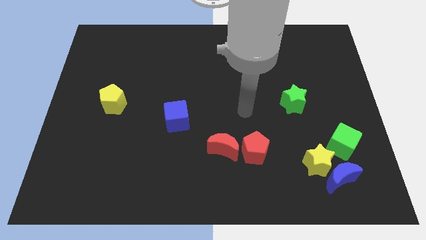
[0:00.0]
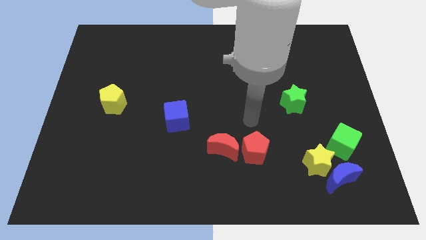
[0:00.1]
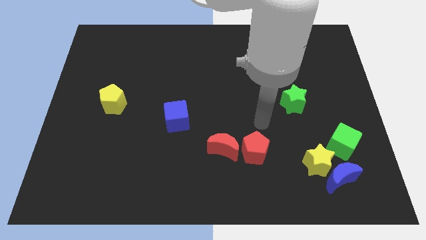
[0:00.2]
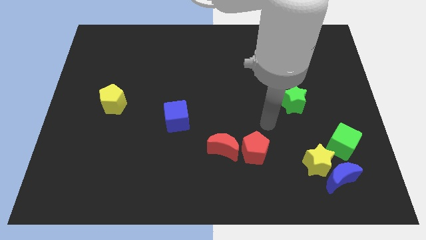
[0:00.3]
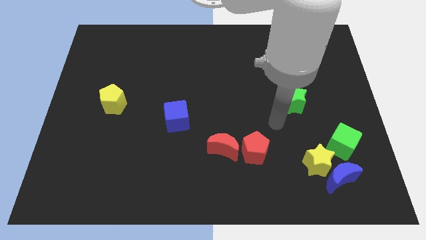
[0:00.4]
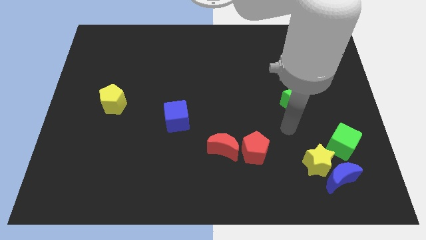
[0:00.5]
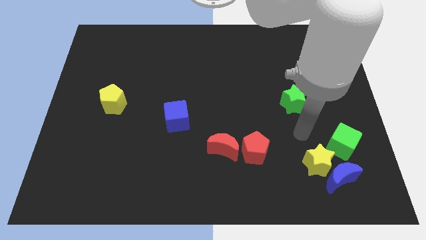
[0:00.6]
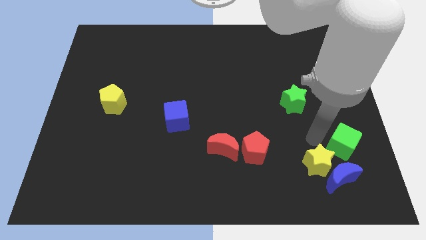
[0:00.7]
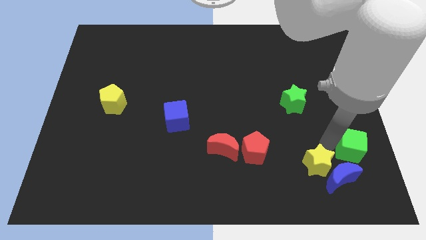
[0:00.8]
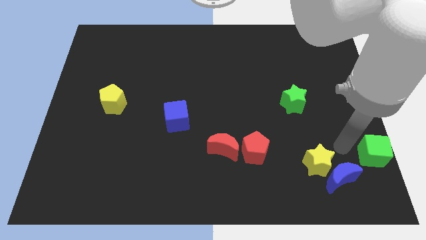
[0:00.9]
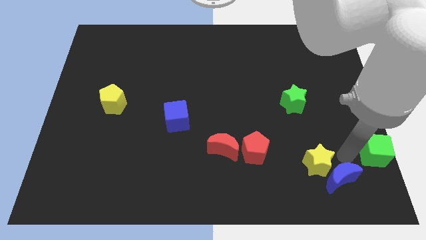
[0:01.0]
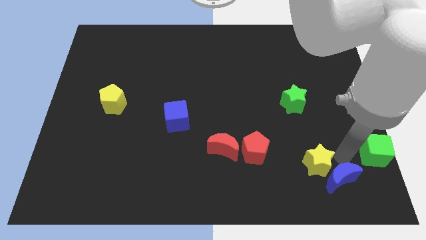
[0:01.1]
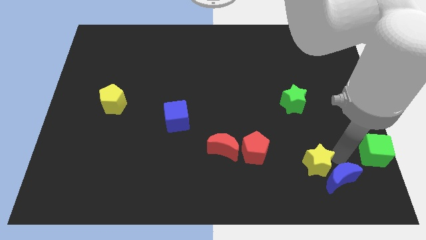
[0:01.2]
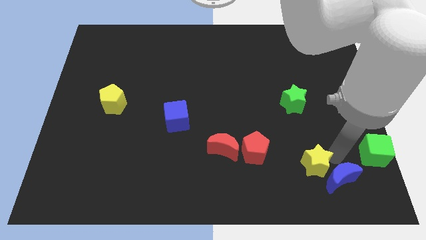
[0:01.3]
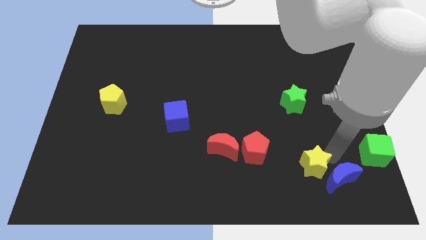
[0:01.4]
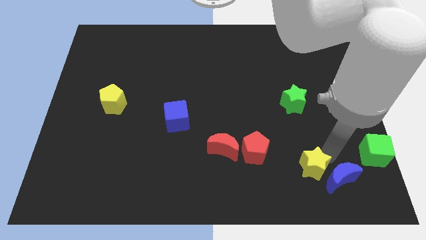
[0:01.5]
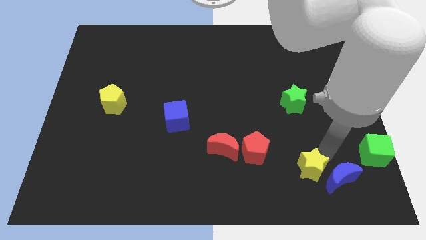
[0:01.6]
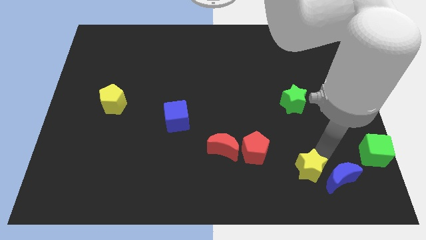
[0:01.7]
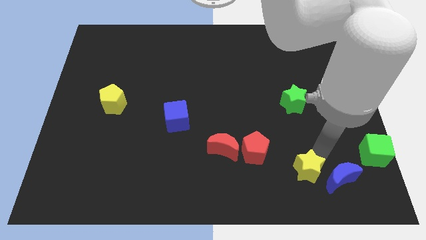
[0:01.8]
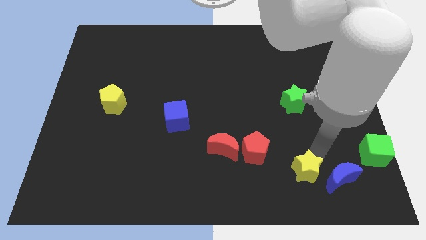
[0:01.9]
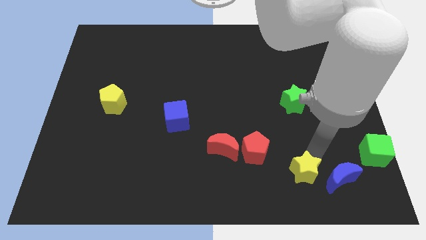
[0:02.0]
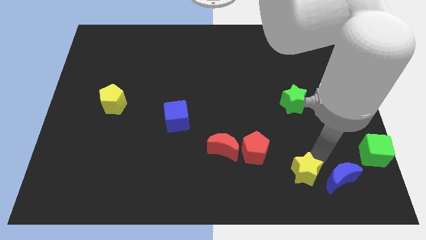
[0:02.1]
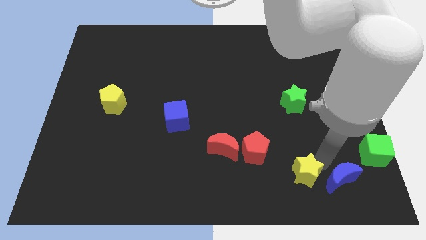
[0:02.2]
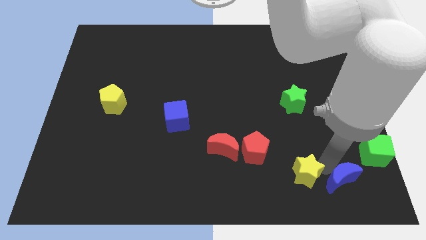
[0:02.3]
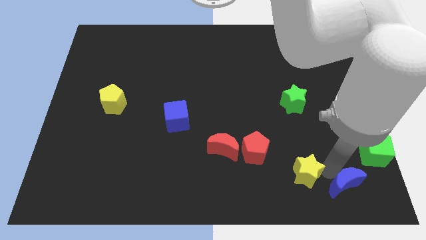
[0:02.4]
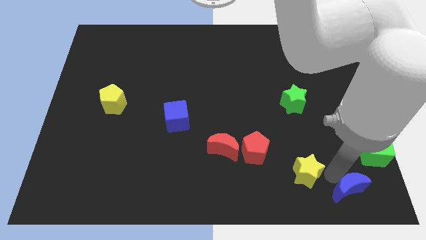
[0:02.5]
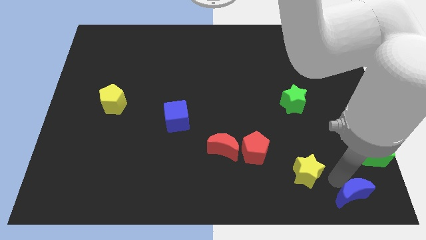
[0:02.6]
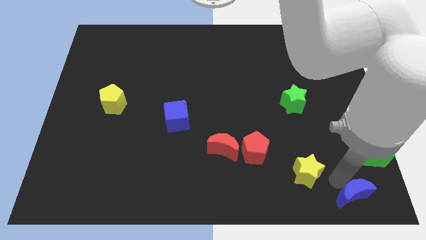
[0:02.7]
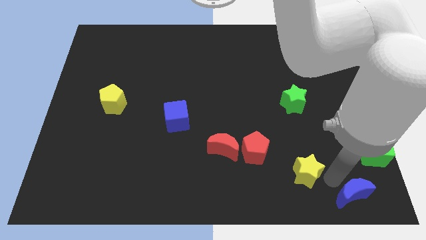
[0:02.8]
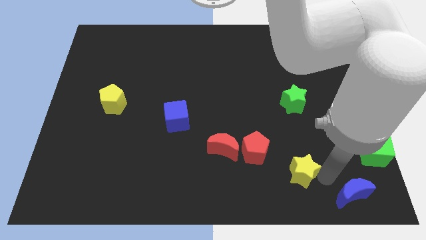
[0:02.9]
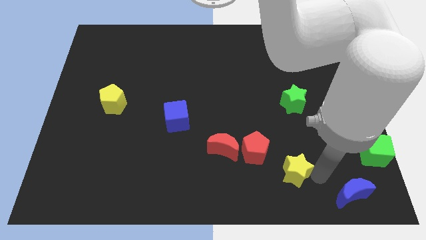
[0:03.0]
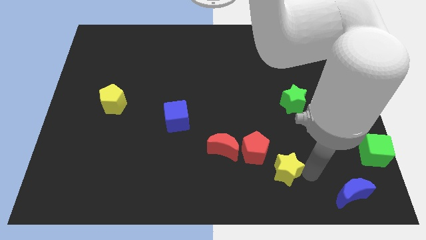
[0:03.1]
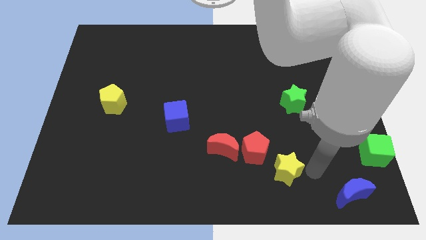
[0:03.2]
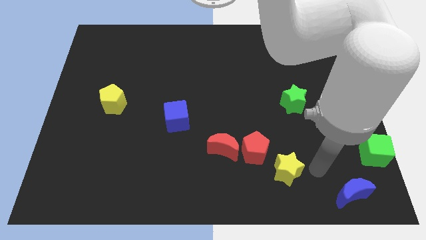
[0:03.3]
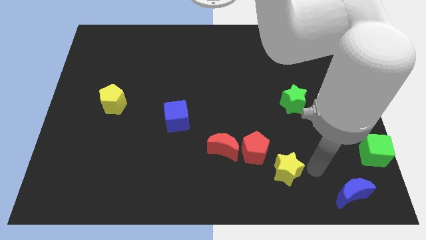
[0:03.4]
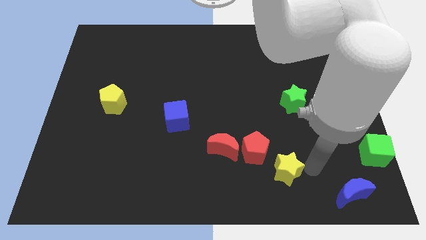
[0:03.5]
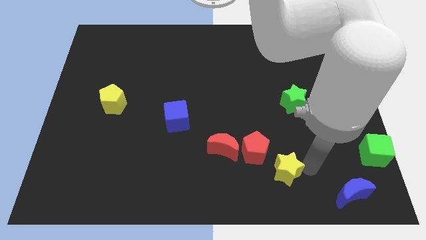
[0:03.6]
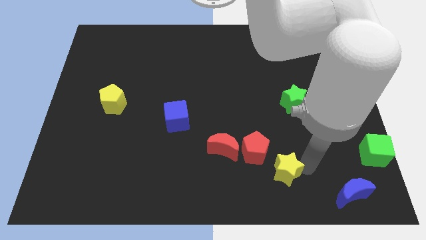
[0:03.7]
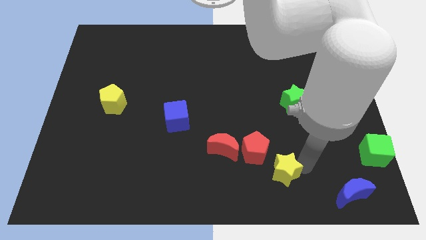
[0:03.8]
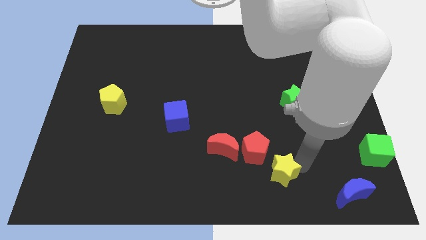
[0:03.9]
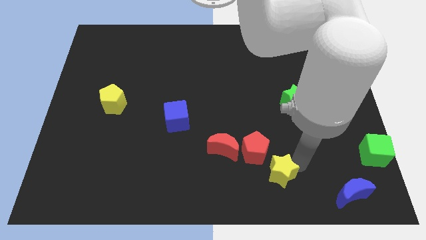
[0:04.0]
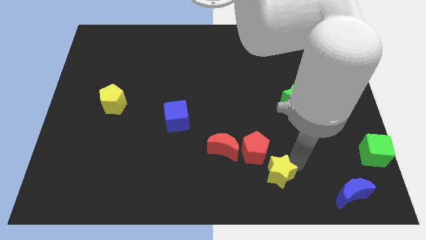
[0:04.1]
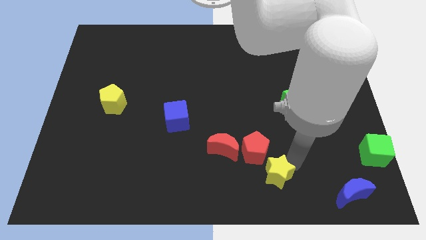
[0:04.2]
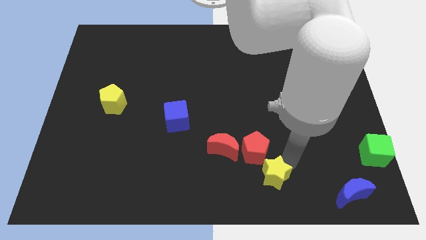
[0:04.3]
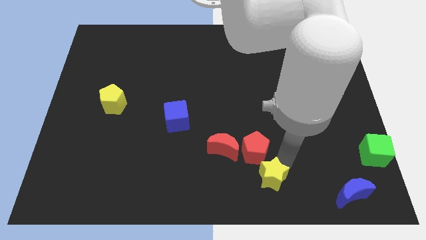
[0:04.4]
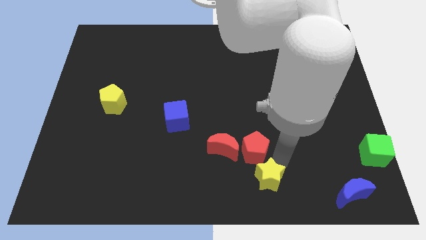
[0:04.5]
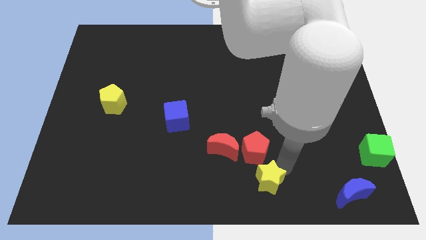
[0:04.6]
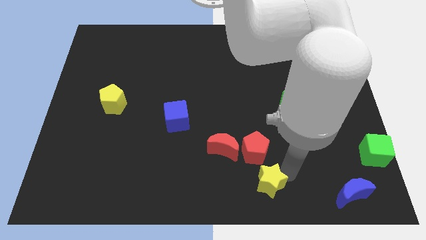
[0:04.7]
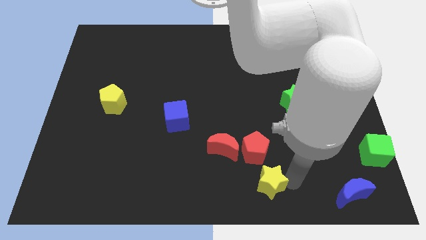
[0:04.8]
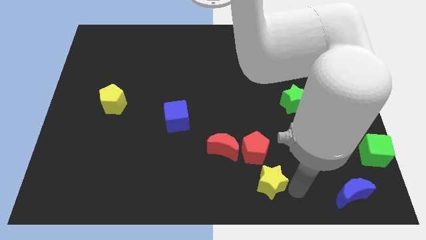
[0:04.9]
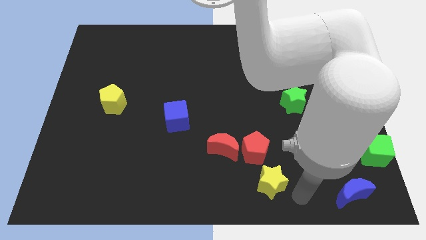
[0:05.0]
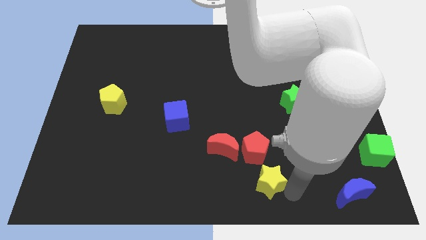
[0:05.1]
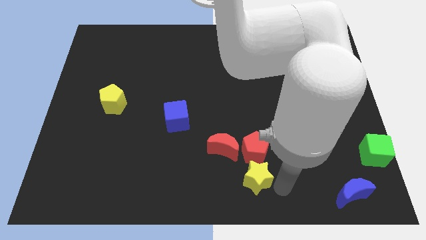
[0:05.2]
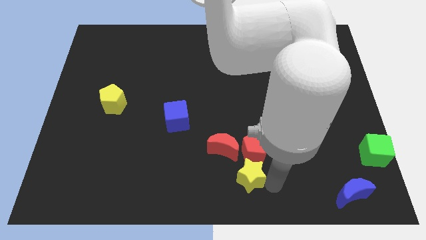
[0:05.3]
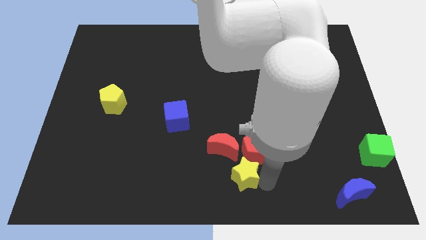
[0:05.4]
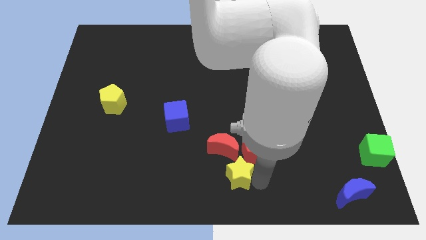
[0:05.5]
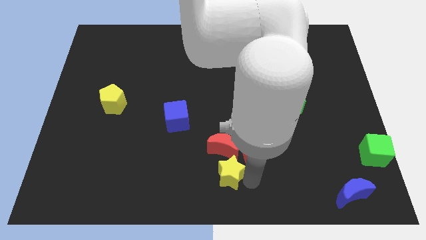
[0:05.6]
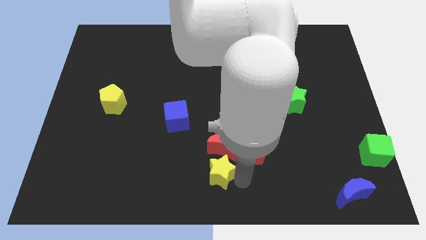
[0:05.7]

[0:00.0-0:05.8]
put the yellow star to the red moon

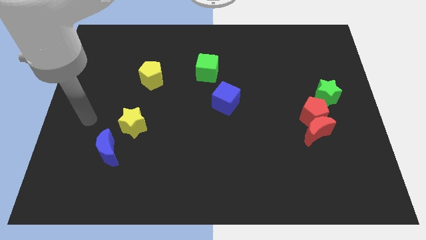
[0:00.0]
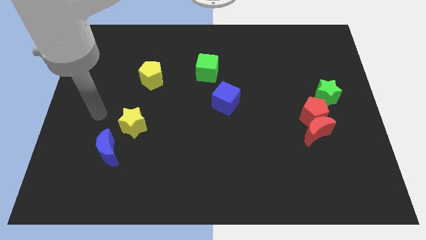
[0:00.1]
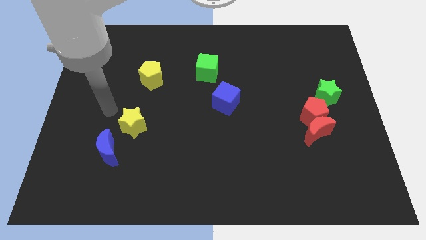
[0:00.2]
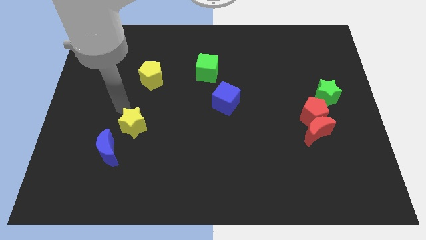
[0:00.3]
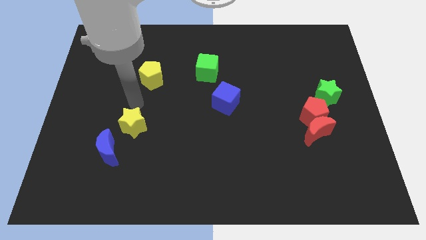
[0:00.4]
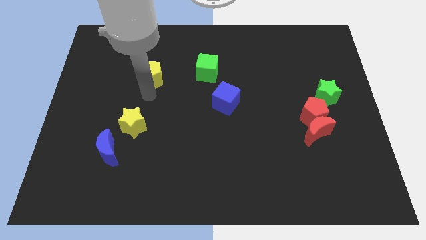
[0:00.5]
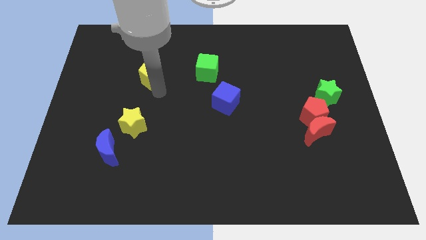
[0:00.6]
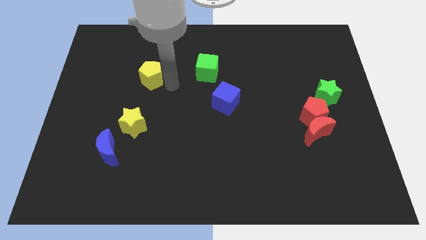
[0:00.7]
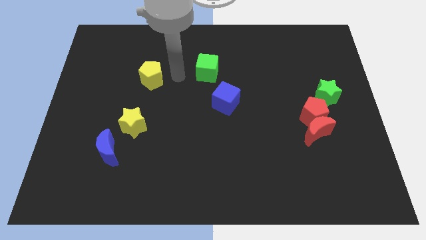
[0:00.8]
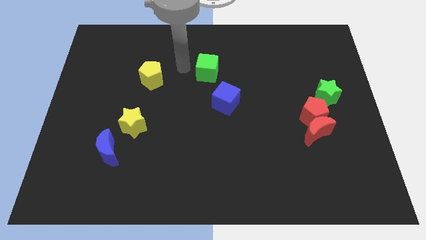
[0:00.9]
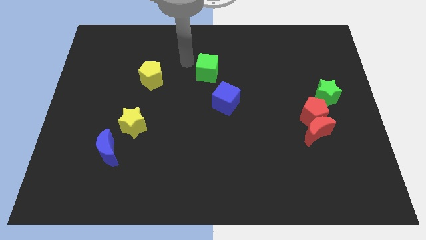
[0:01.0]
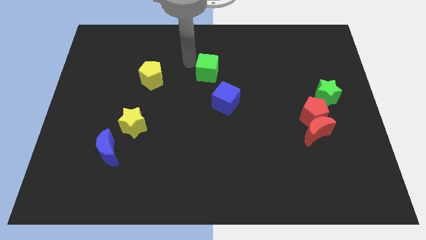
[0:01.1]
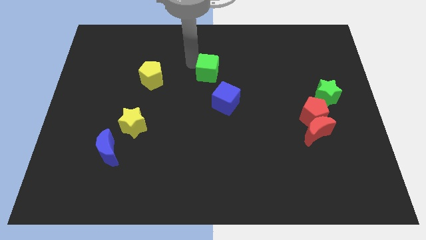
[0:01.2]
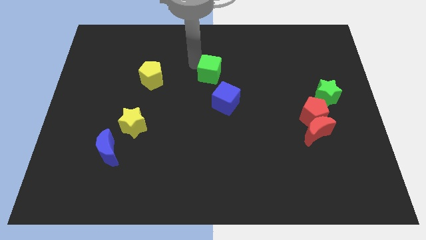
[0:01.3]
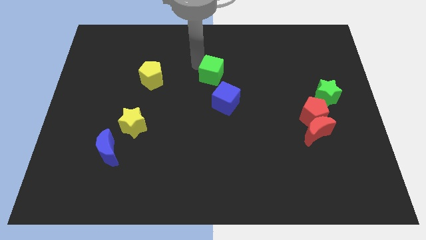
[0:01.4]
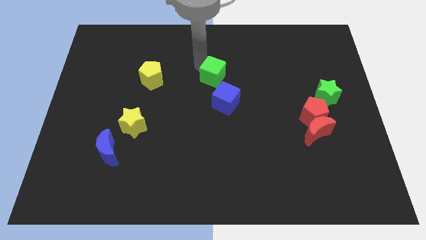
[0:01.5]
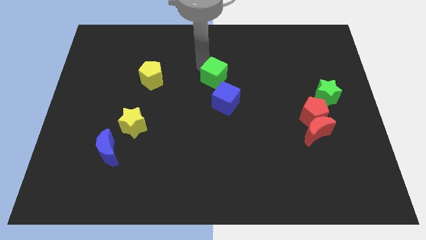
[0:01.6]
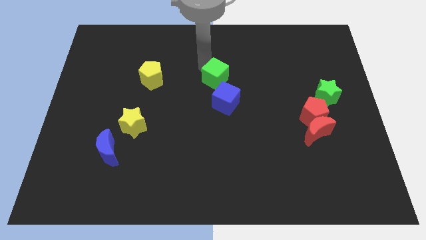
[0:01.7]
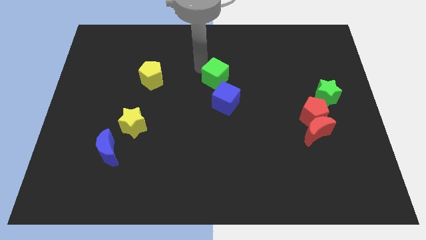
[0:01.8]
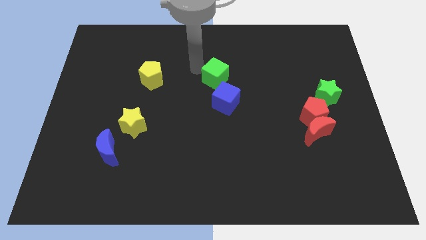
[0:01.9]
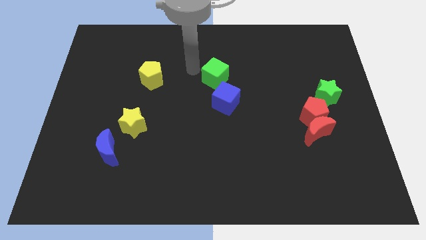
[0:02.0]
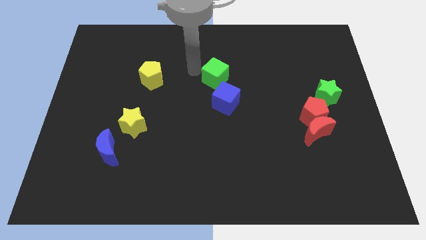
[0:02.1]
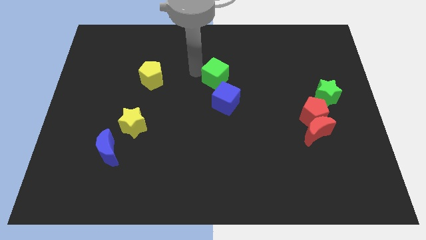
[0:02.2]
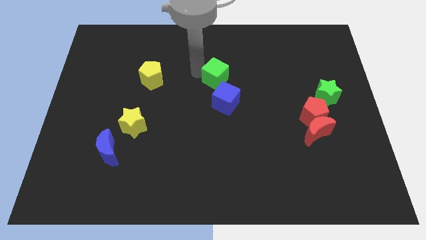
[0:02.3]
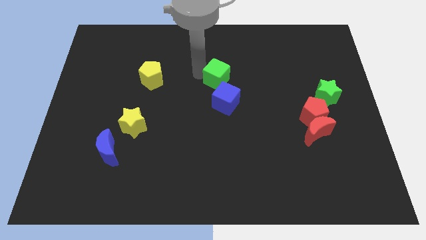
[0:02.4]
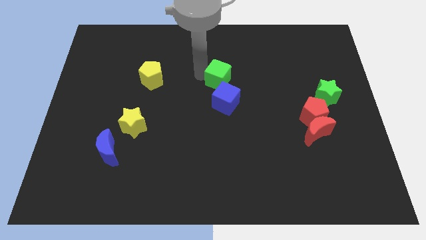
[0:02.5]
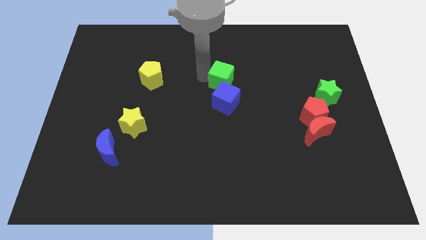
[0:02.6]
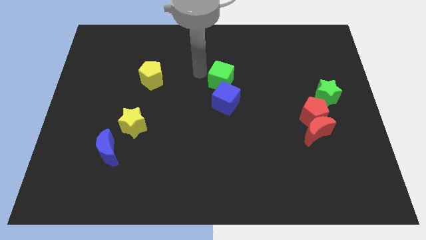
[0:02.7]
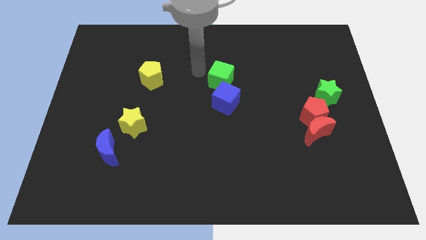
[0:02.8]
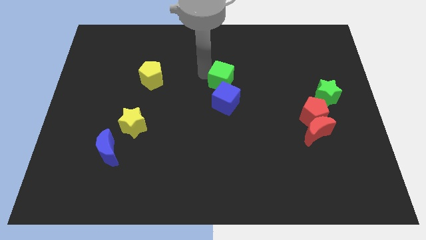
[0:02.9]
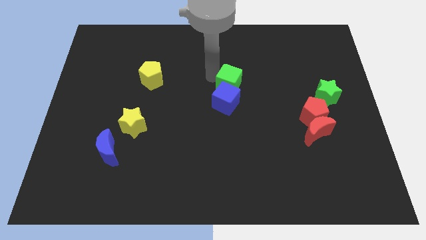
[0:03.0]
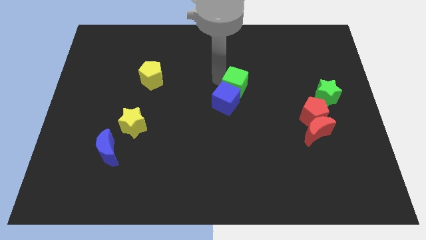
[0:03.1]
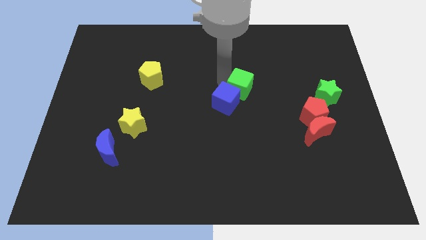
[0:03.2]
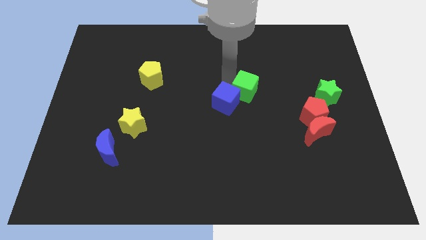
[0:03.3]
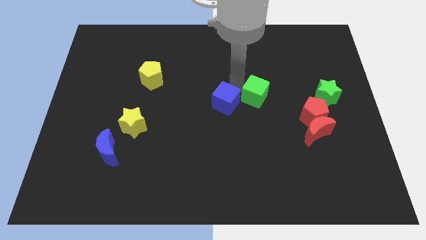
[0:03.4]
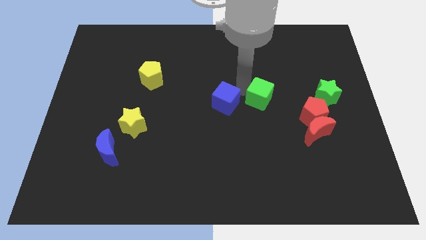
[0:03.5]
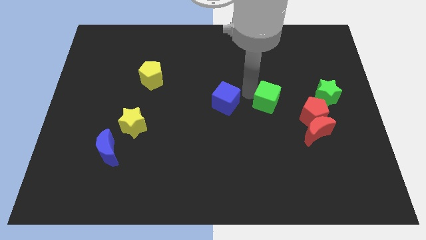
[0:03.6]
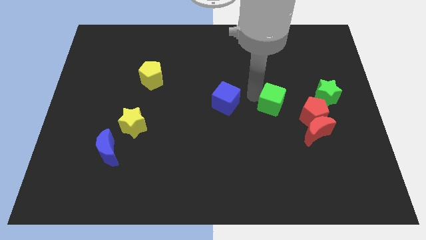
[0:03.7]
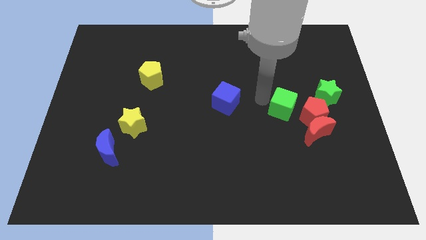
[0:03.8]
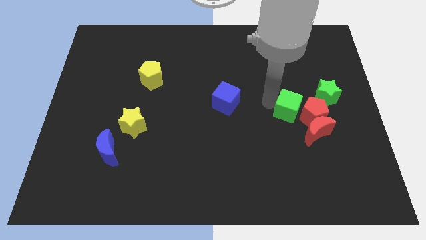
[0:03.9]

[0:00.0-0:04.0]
put the green cube towards the red pentagon
